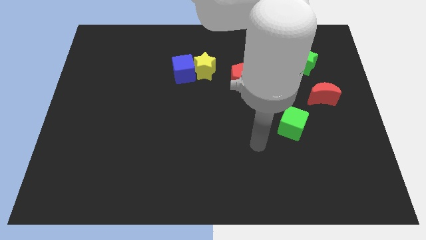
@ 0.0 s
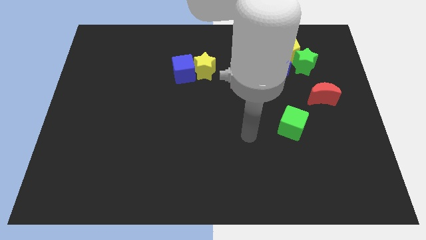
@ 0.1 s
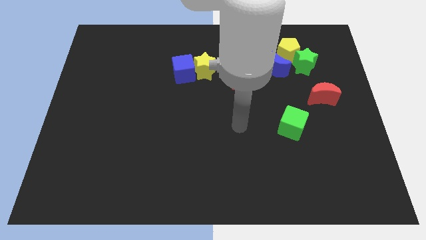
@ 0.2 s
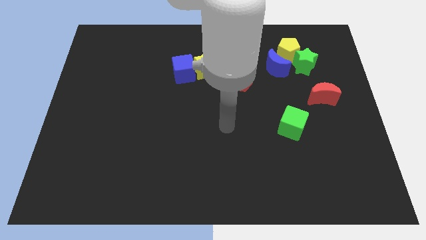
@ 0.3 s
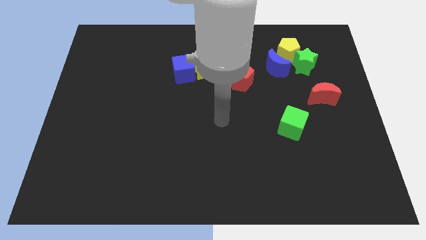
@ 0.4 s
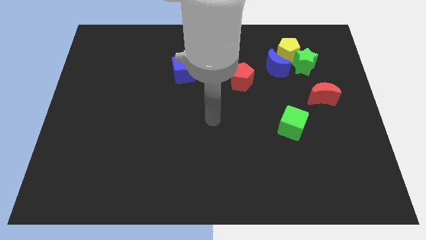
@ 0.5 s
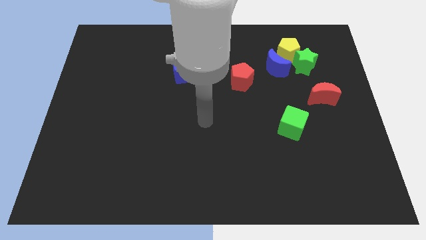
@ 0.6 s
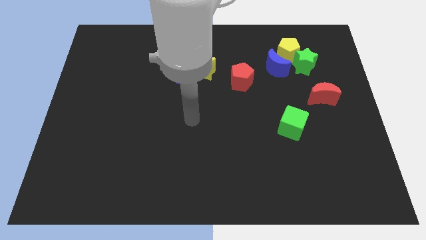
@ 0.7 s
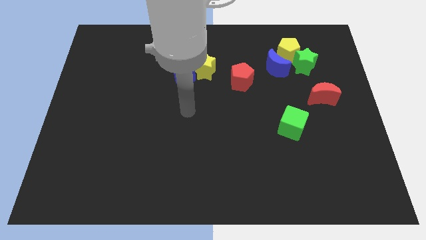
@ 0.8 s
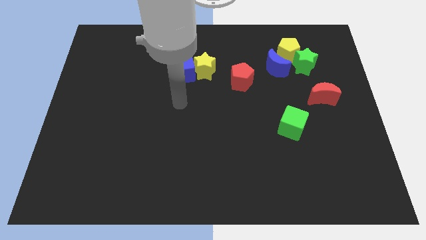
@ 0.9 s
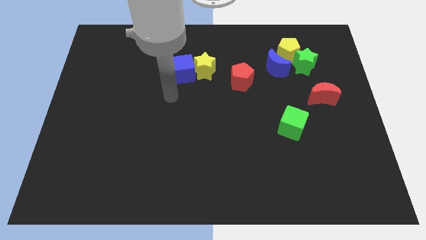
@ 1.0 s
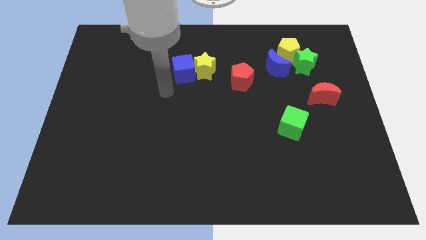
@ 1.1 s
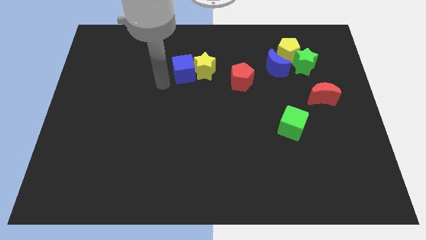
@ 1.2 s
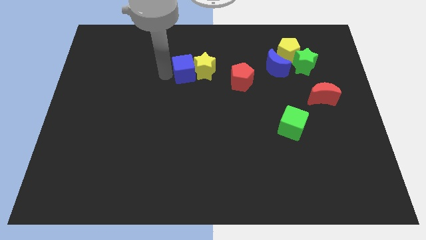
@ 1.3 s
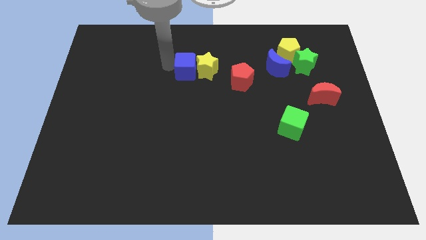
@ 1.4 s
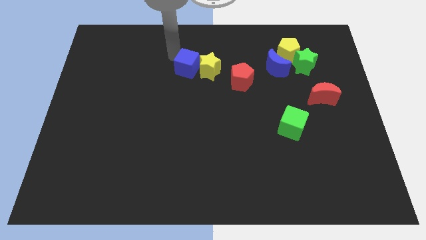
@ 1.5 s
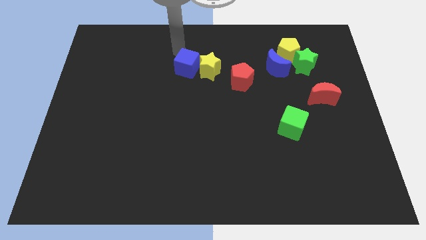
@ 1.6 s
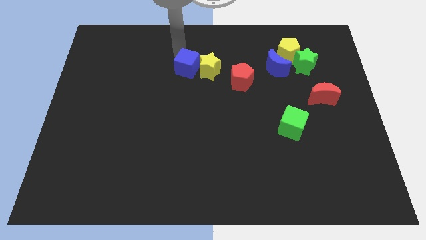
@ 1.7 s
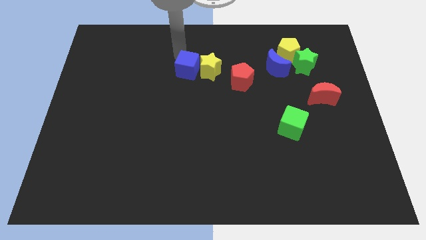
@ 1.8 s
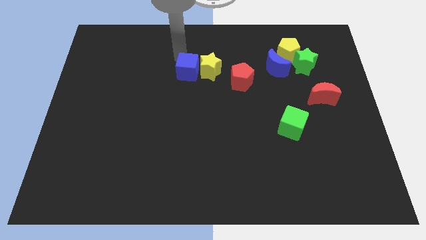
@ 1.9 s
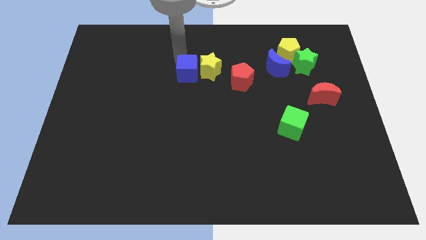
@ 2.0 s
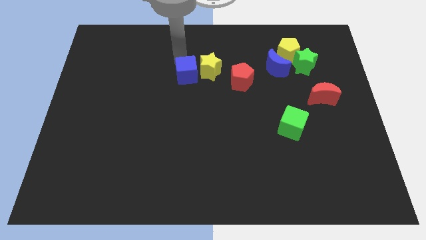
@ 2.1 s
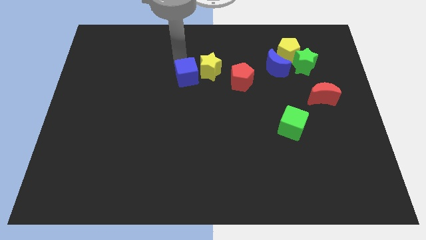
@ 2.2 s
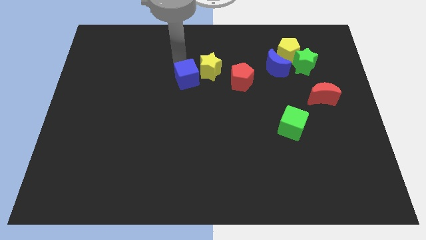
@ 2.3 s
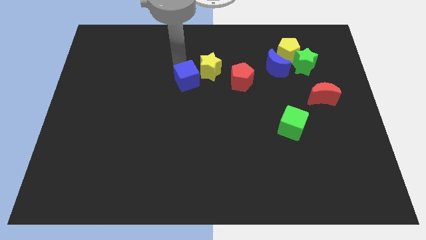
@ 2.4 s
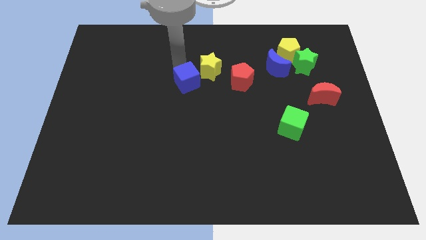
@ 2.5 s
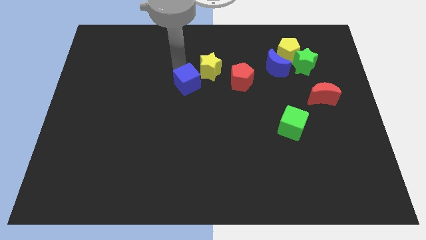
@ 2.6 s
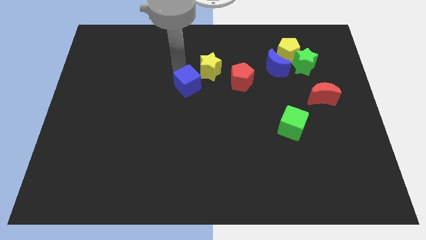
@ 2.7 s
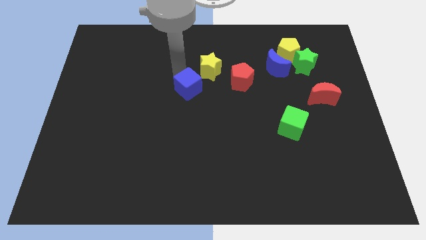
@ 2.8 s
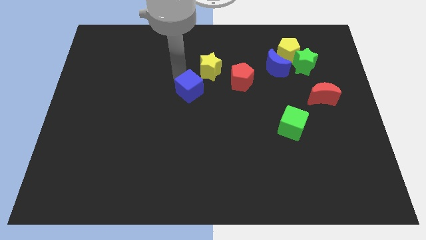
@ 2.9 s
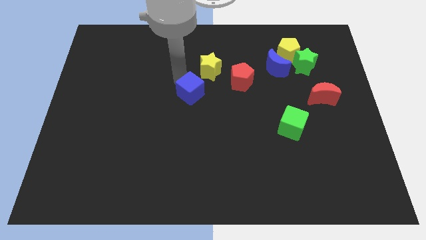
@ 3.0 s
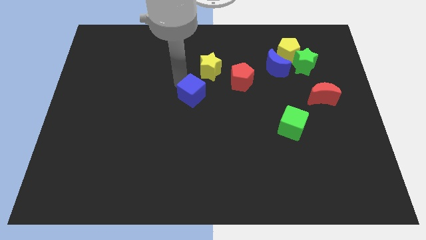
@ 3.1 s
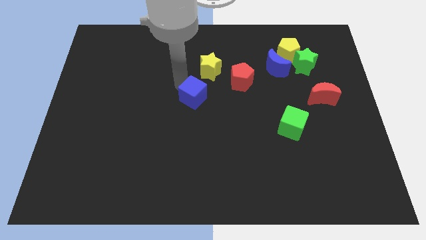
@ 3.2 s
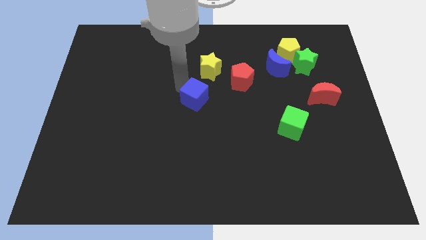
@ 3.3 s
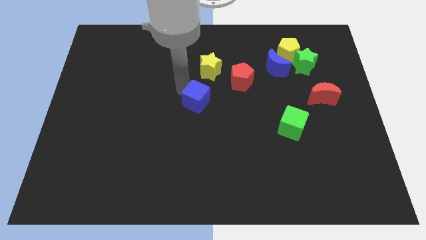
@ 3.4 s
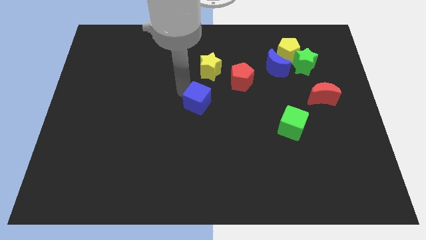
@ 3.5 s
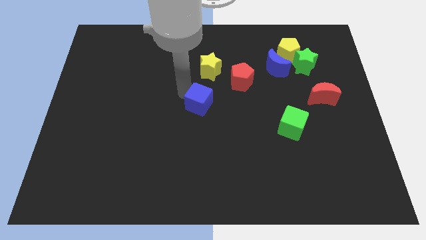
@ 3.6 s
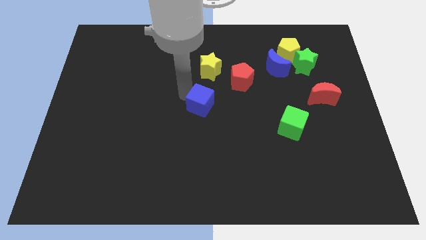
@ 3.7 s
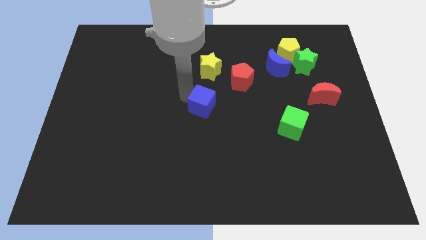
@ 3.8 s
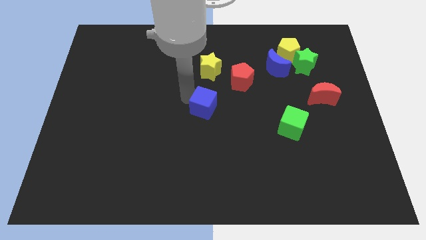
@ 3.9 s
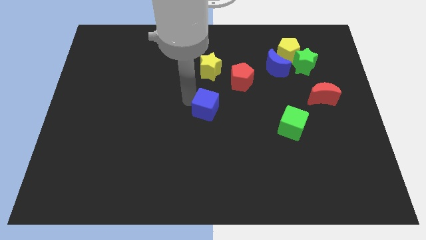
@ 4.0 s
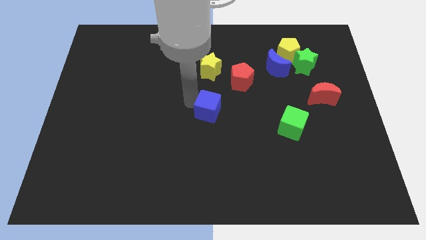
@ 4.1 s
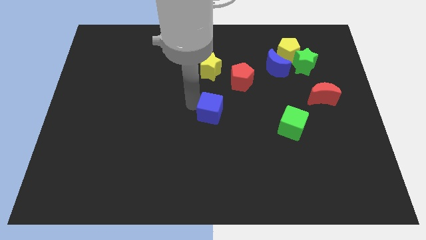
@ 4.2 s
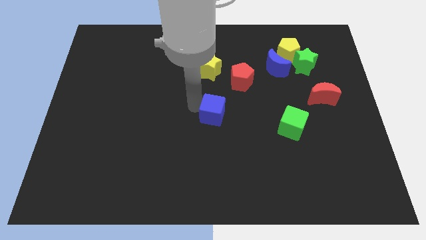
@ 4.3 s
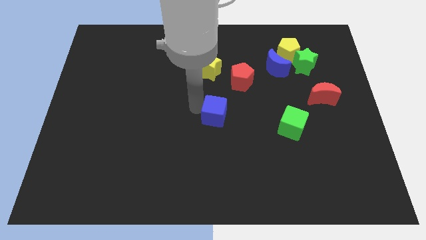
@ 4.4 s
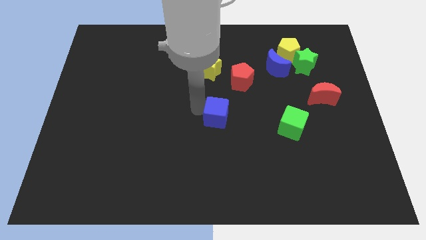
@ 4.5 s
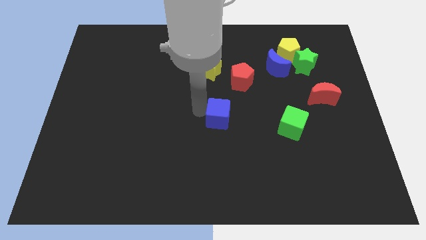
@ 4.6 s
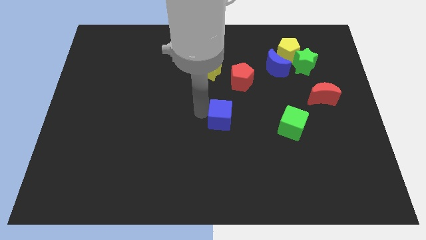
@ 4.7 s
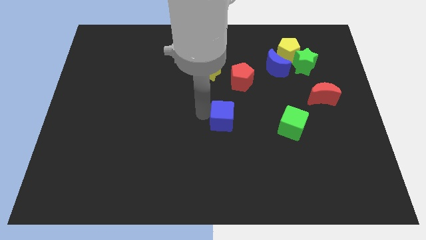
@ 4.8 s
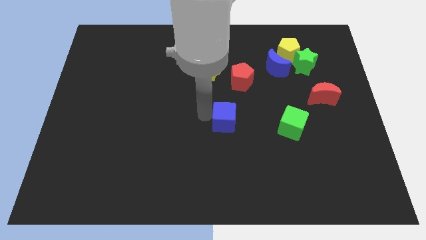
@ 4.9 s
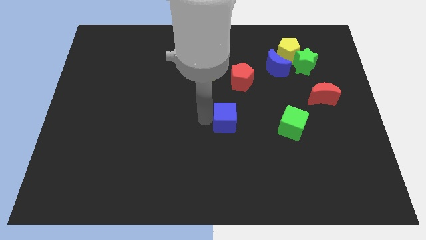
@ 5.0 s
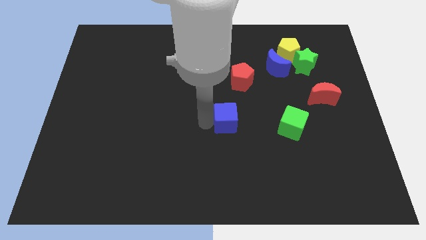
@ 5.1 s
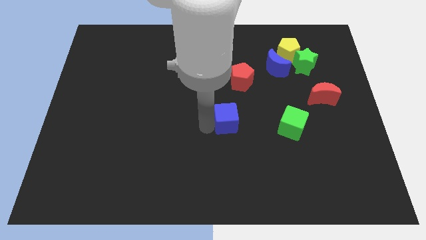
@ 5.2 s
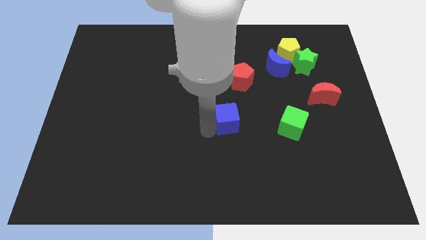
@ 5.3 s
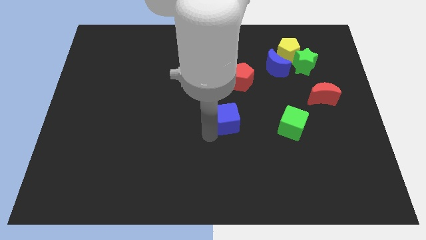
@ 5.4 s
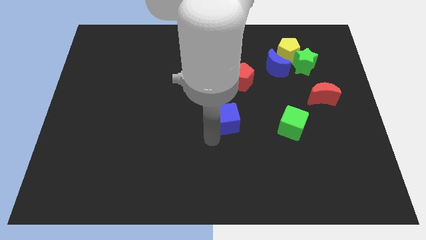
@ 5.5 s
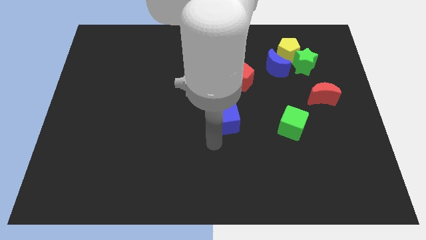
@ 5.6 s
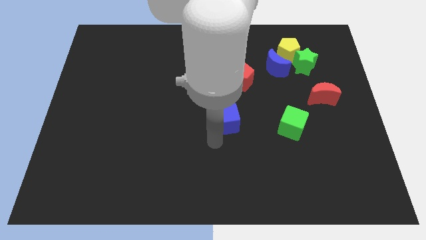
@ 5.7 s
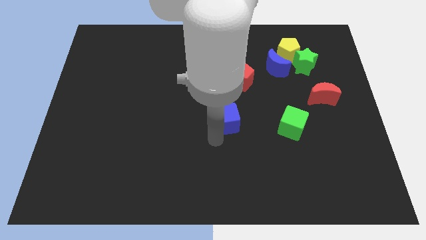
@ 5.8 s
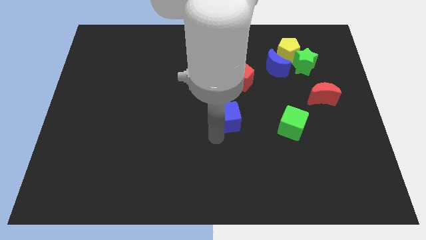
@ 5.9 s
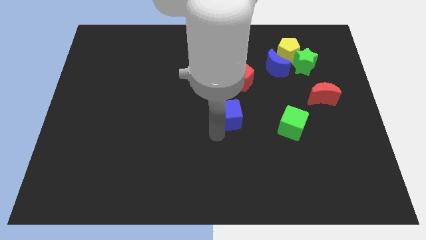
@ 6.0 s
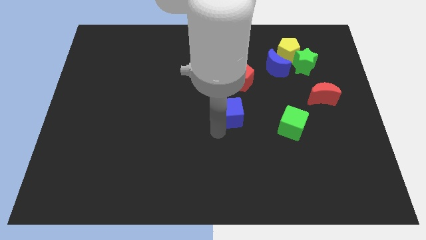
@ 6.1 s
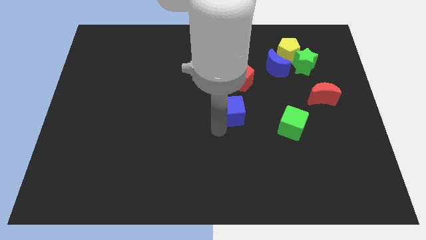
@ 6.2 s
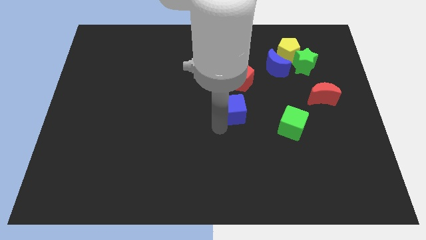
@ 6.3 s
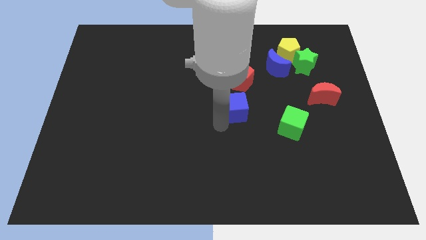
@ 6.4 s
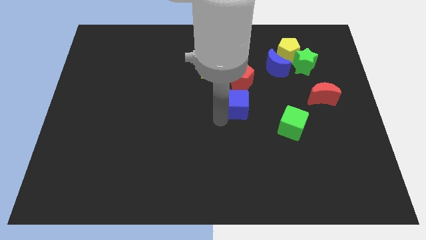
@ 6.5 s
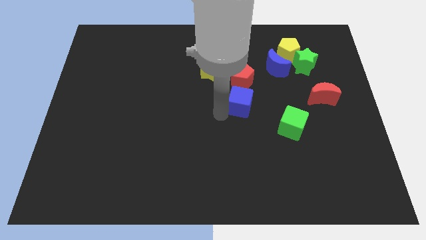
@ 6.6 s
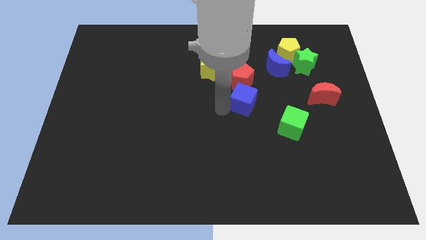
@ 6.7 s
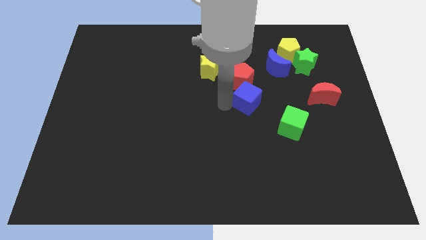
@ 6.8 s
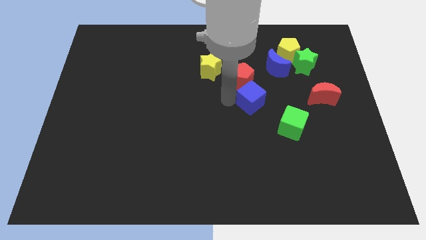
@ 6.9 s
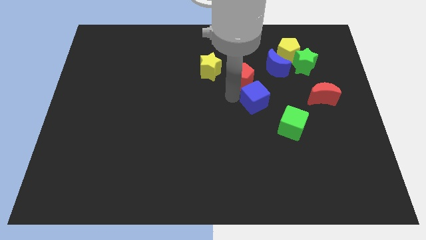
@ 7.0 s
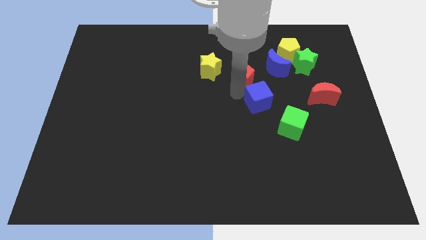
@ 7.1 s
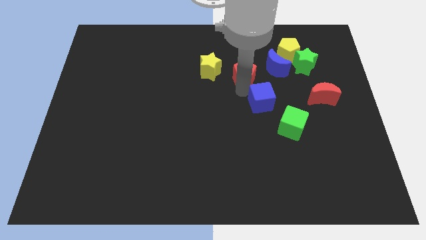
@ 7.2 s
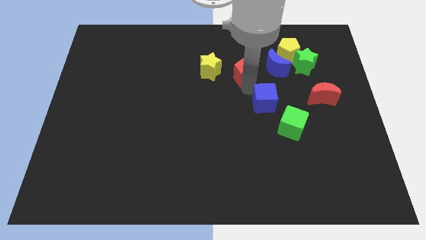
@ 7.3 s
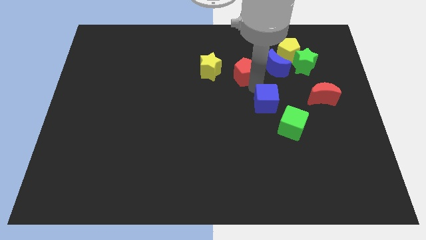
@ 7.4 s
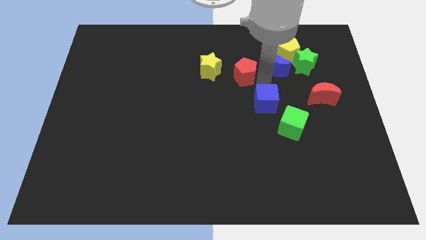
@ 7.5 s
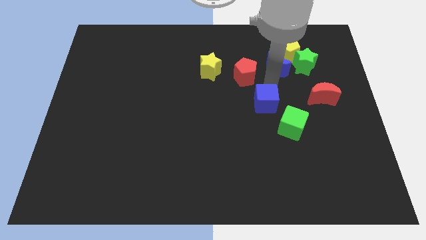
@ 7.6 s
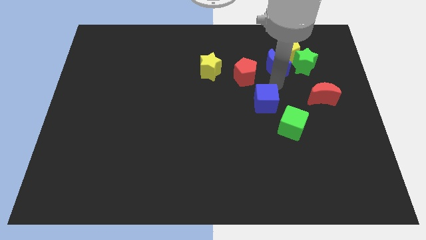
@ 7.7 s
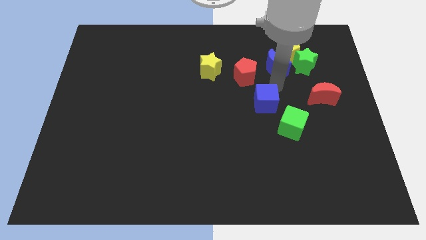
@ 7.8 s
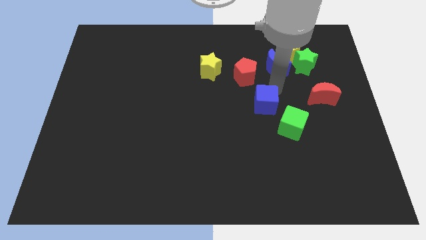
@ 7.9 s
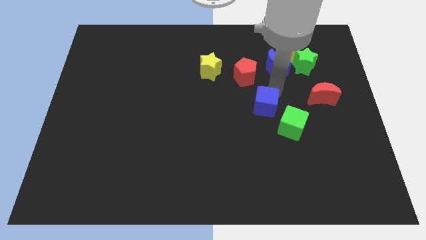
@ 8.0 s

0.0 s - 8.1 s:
push the blue cube downwards and to the right diagonally

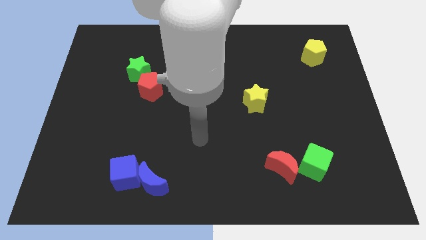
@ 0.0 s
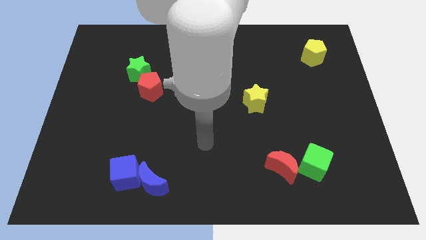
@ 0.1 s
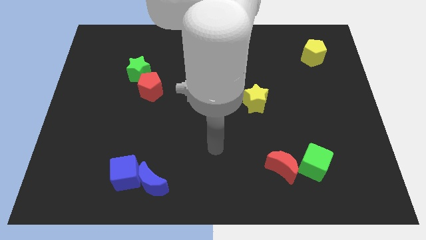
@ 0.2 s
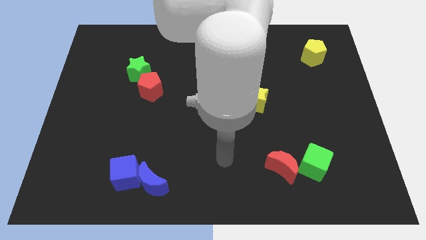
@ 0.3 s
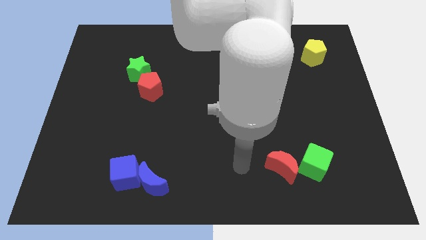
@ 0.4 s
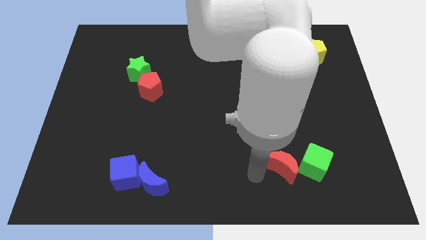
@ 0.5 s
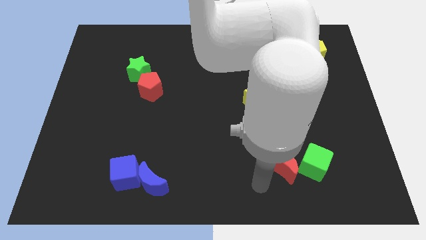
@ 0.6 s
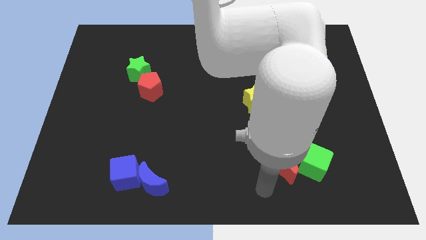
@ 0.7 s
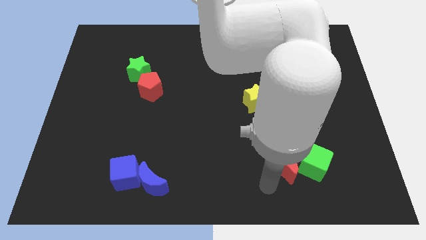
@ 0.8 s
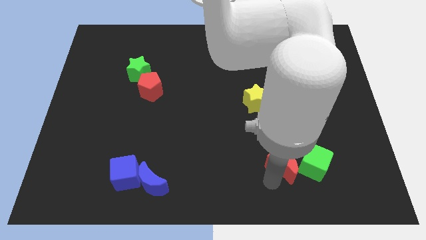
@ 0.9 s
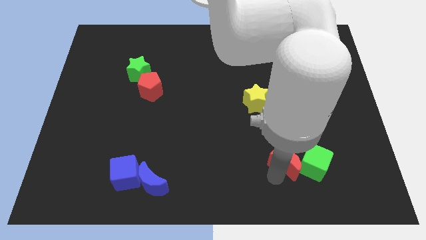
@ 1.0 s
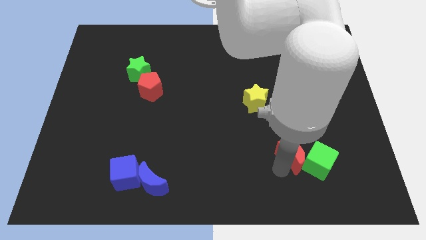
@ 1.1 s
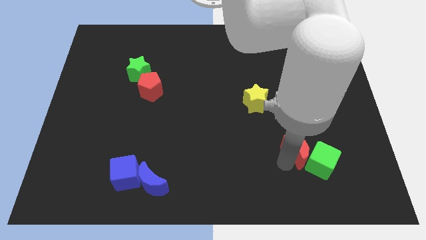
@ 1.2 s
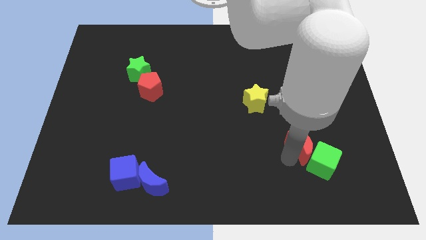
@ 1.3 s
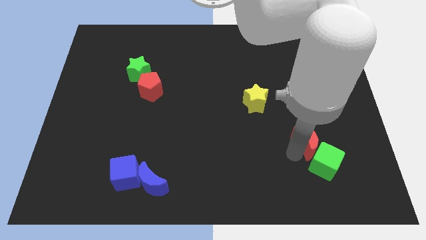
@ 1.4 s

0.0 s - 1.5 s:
slightly move the red moon upwards and right
